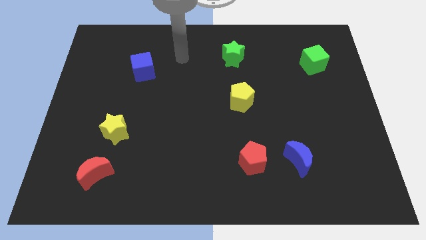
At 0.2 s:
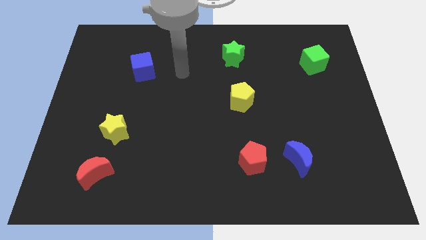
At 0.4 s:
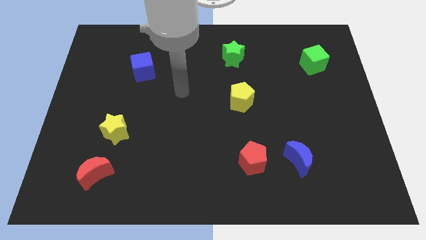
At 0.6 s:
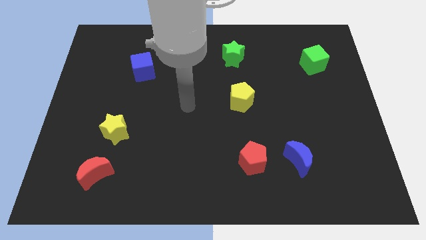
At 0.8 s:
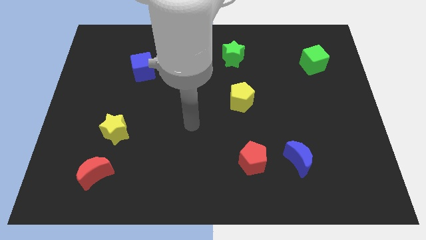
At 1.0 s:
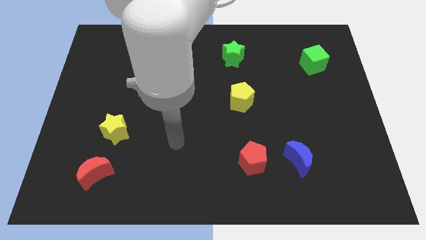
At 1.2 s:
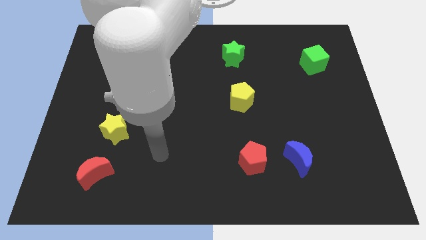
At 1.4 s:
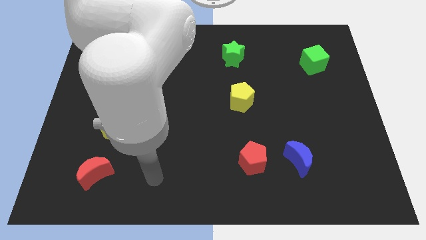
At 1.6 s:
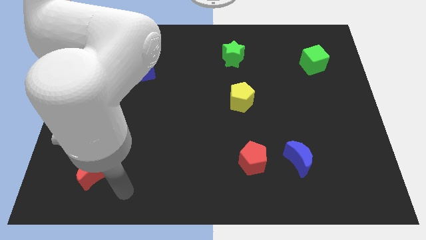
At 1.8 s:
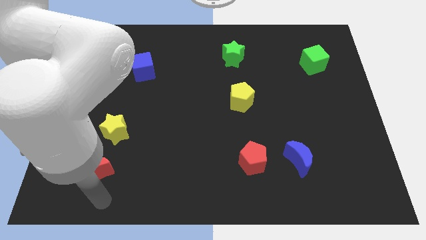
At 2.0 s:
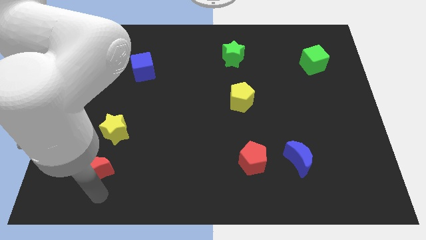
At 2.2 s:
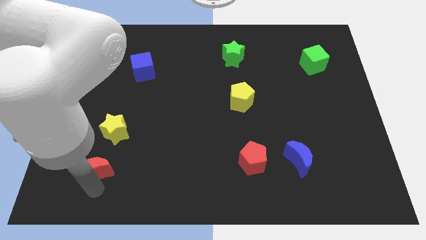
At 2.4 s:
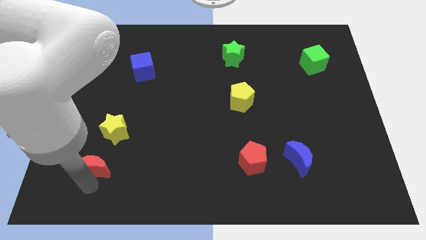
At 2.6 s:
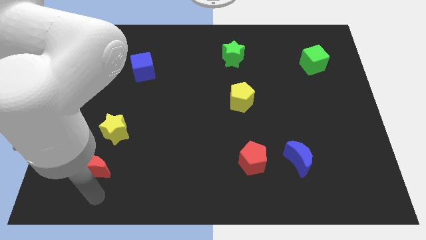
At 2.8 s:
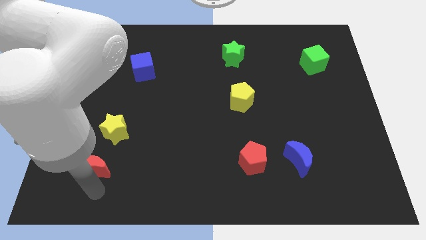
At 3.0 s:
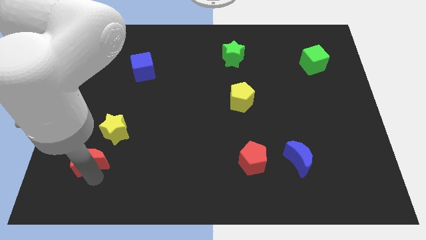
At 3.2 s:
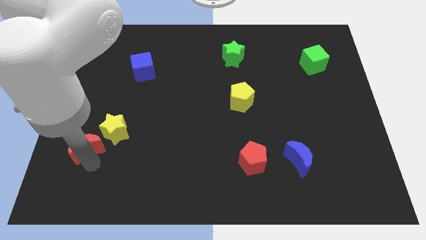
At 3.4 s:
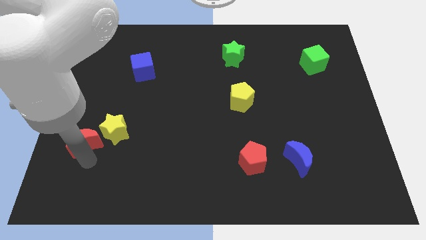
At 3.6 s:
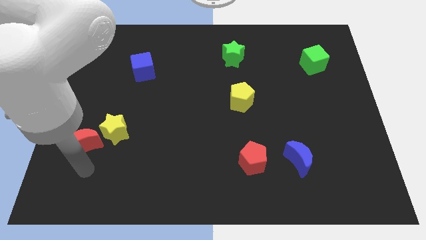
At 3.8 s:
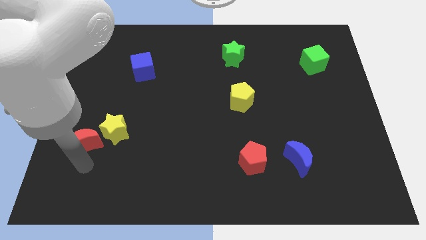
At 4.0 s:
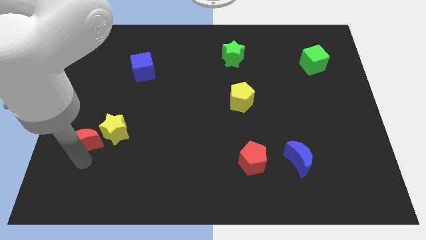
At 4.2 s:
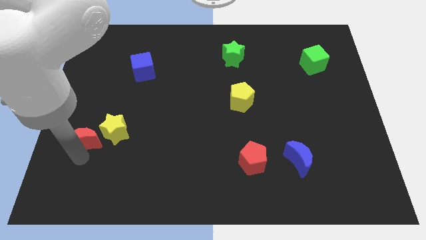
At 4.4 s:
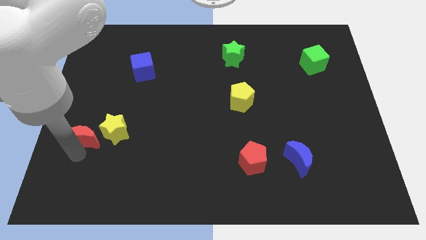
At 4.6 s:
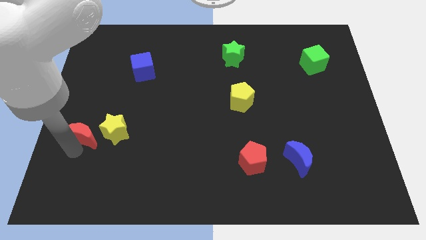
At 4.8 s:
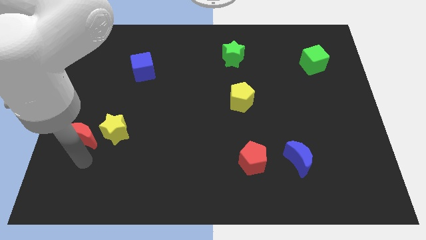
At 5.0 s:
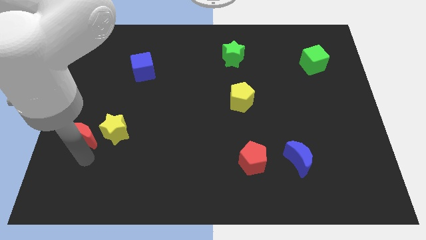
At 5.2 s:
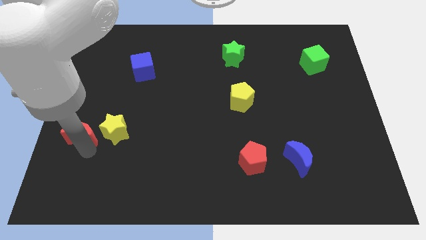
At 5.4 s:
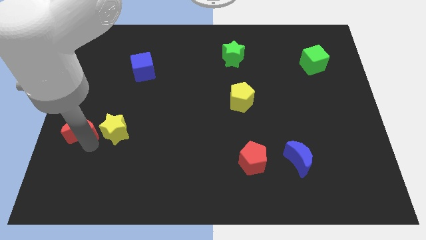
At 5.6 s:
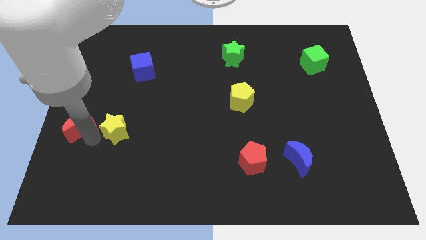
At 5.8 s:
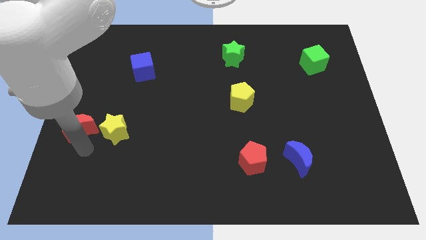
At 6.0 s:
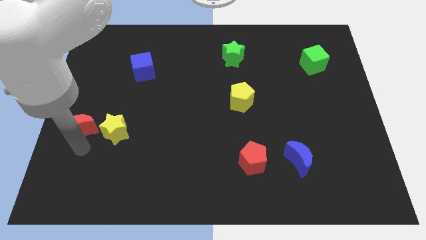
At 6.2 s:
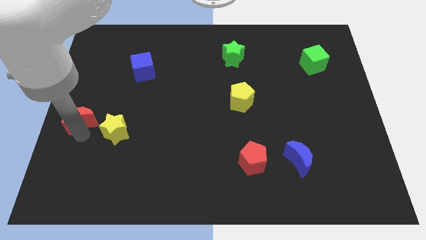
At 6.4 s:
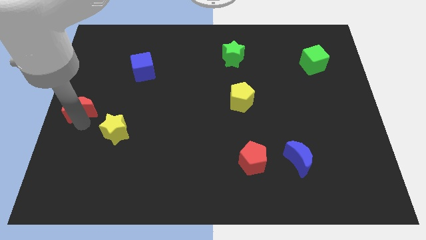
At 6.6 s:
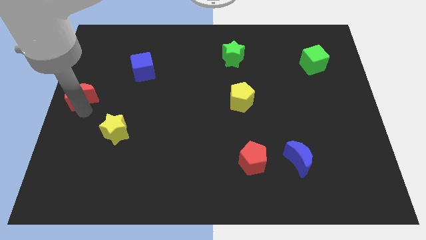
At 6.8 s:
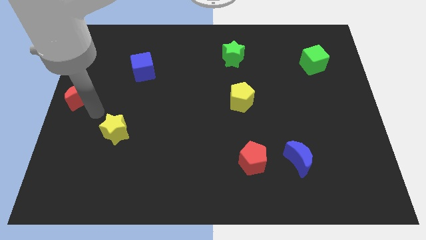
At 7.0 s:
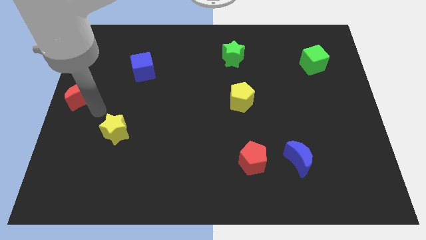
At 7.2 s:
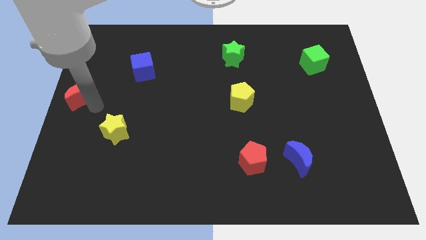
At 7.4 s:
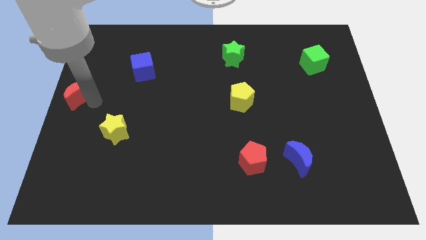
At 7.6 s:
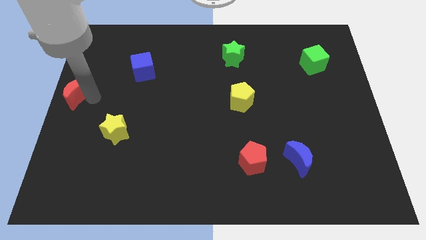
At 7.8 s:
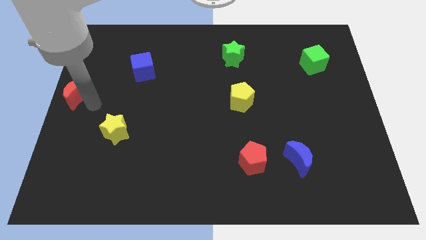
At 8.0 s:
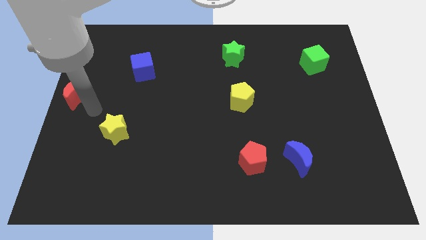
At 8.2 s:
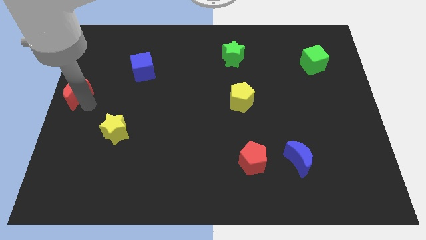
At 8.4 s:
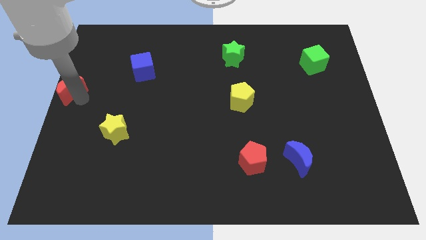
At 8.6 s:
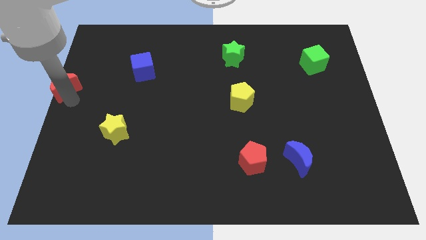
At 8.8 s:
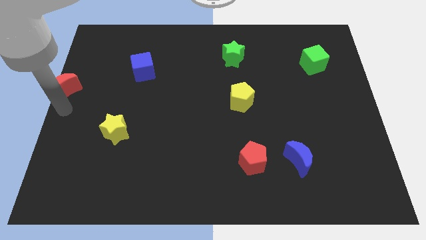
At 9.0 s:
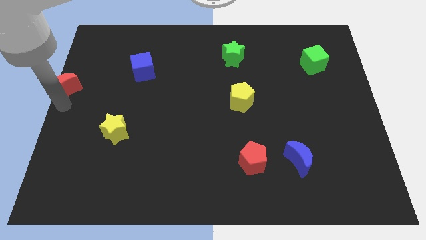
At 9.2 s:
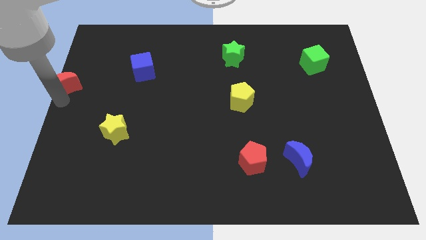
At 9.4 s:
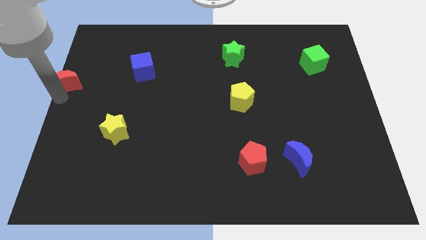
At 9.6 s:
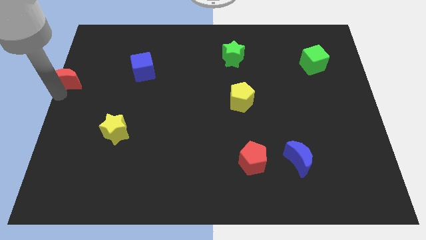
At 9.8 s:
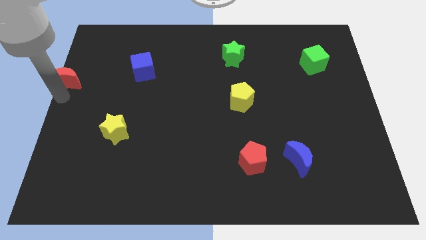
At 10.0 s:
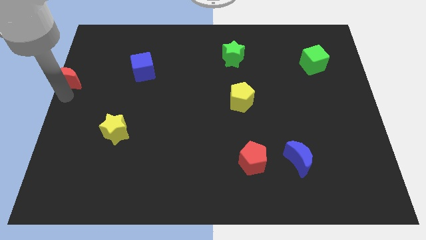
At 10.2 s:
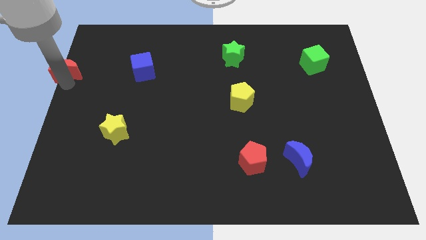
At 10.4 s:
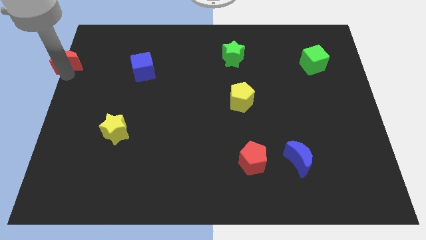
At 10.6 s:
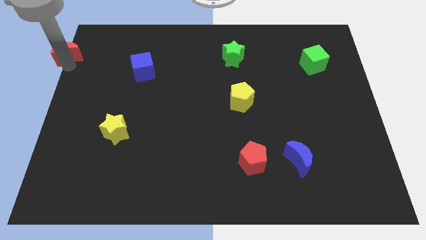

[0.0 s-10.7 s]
slide the red moon to the upper left corner

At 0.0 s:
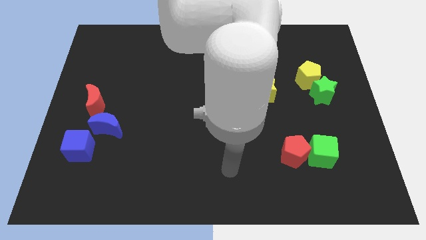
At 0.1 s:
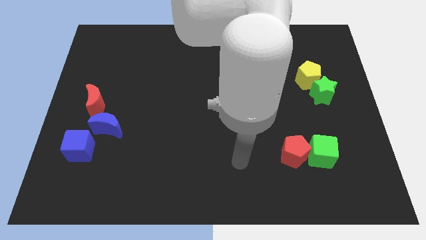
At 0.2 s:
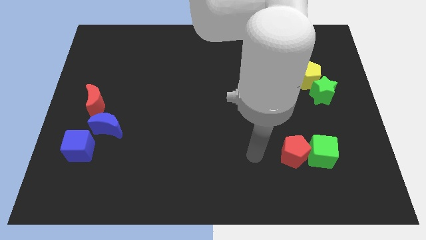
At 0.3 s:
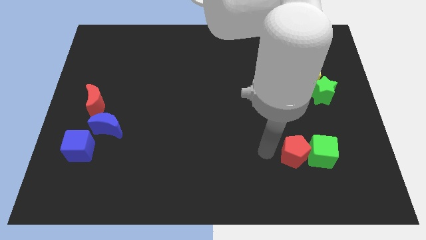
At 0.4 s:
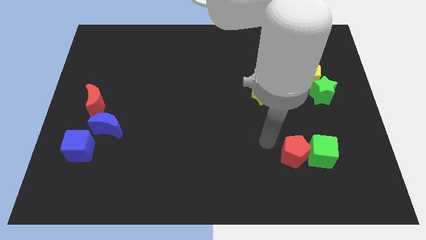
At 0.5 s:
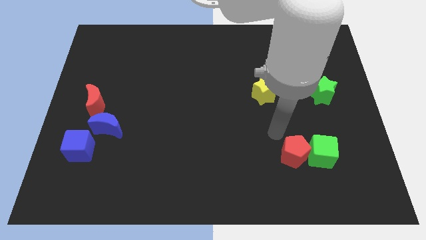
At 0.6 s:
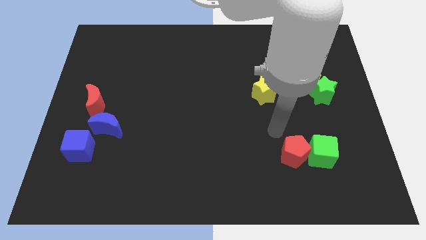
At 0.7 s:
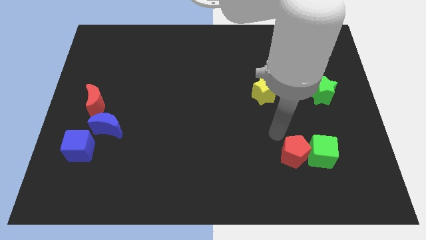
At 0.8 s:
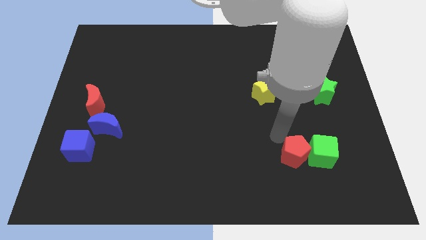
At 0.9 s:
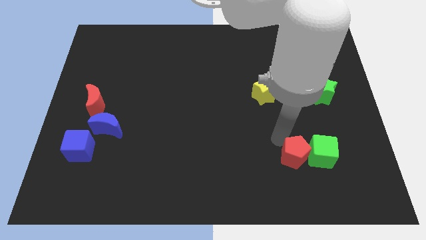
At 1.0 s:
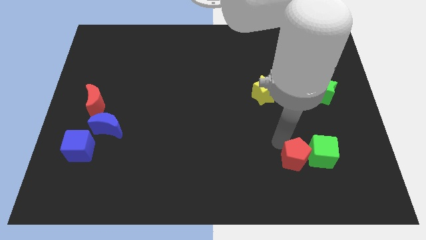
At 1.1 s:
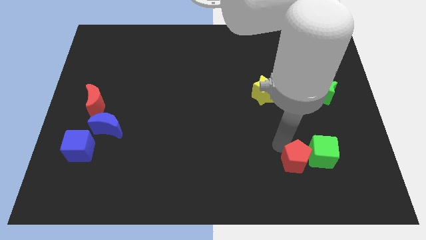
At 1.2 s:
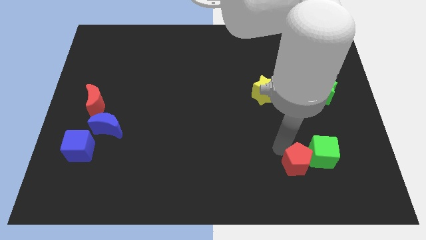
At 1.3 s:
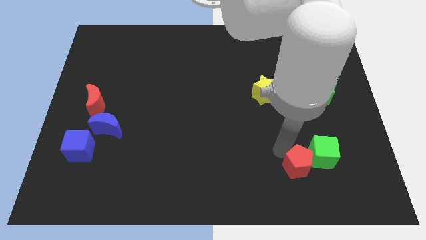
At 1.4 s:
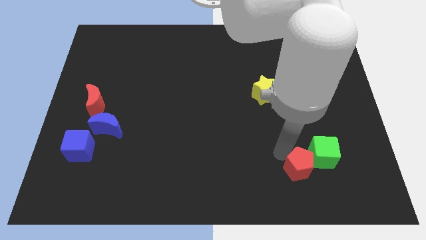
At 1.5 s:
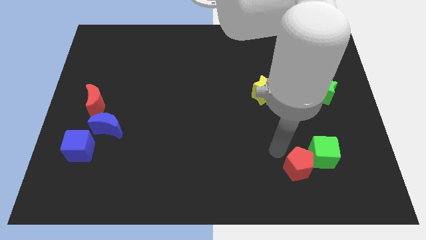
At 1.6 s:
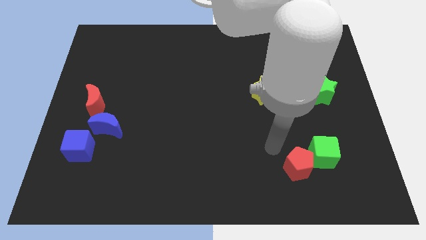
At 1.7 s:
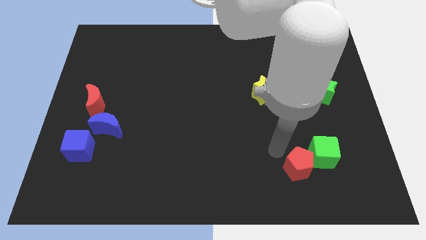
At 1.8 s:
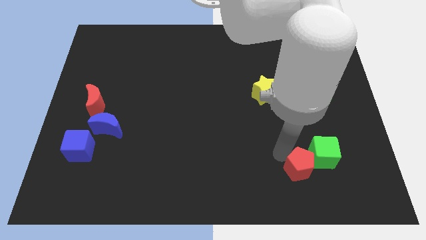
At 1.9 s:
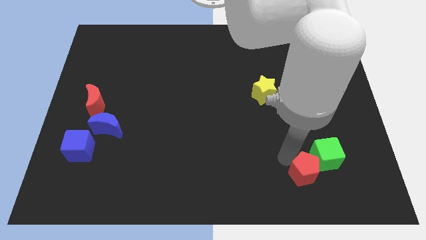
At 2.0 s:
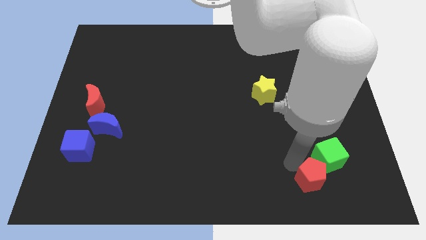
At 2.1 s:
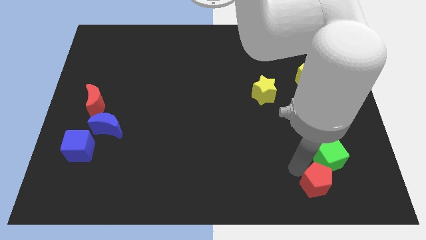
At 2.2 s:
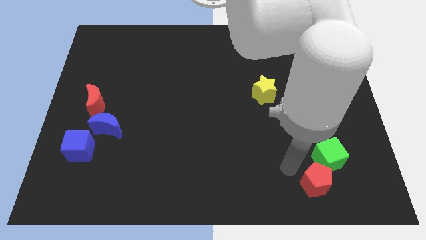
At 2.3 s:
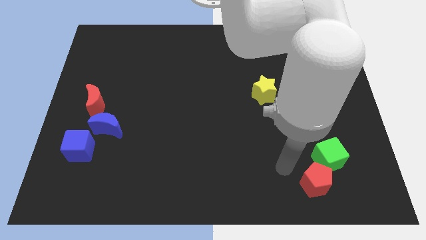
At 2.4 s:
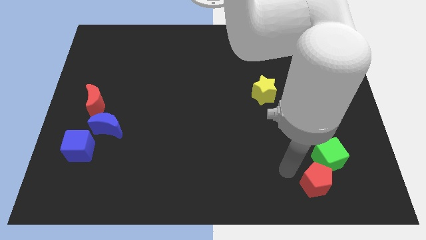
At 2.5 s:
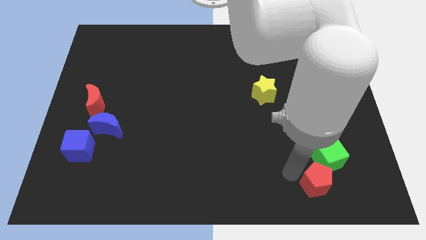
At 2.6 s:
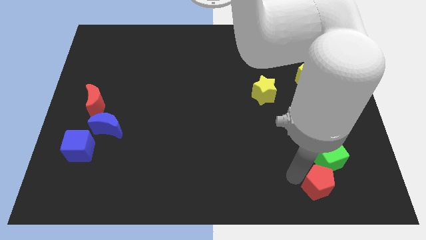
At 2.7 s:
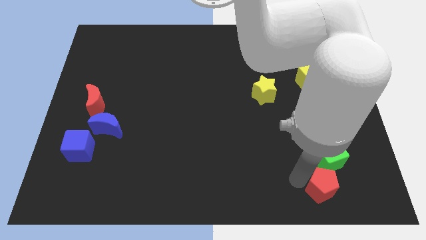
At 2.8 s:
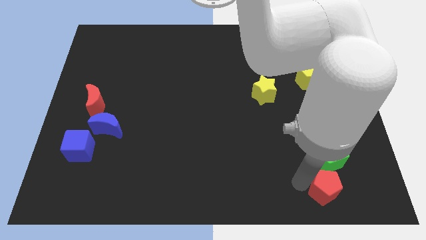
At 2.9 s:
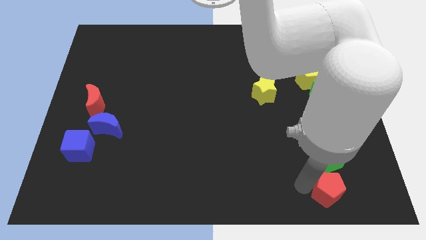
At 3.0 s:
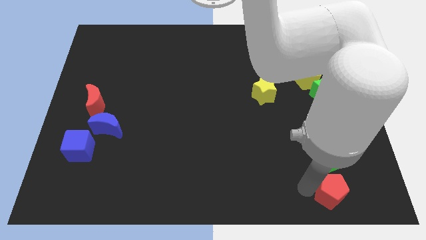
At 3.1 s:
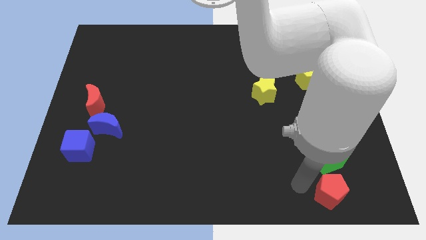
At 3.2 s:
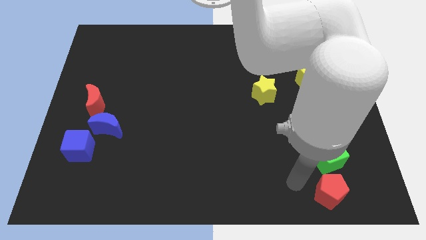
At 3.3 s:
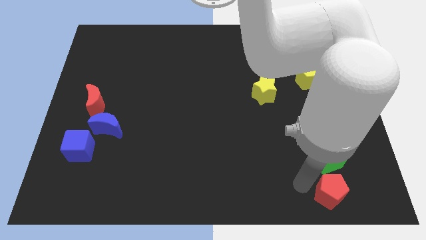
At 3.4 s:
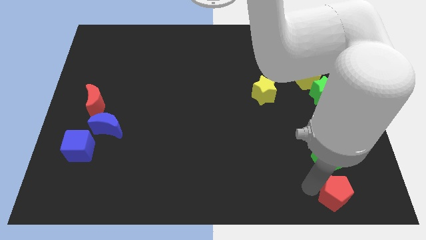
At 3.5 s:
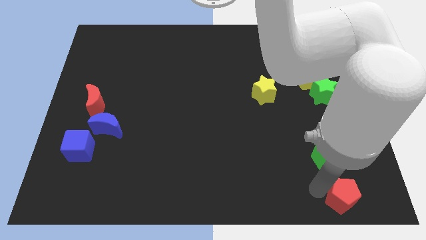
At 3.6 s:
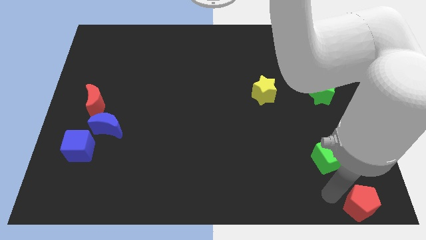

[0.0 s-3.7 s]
put the red pentagon to the lower right corner
